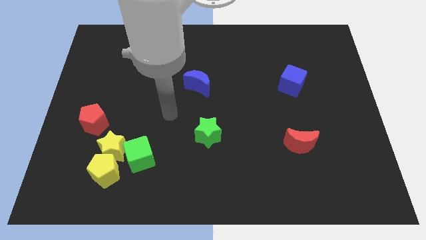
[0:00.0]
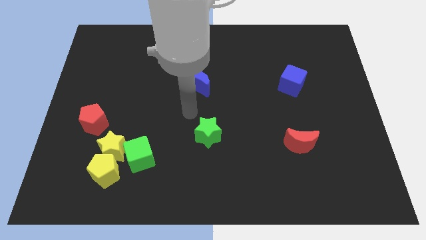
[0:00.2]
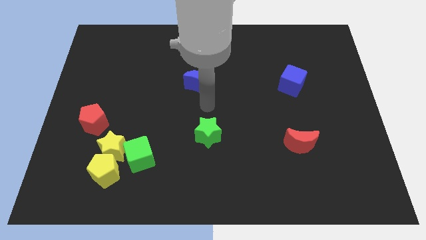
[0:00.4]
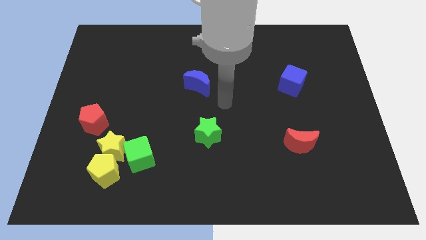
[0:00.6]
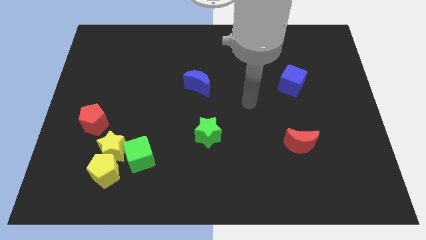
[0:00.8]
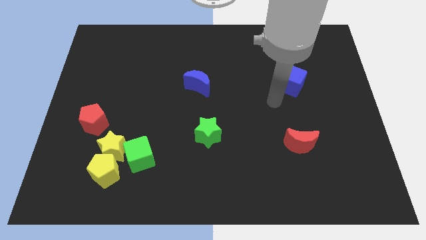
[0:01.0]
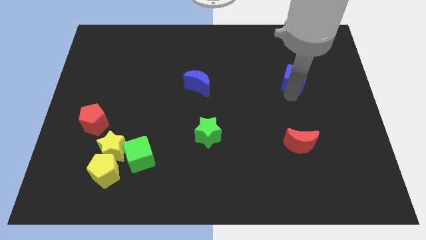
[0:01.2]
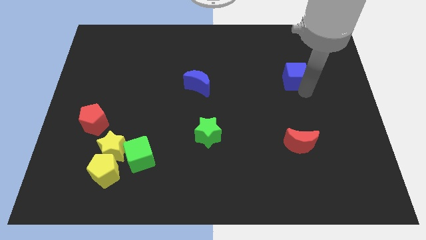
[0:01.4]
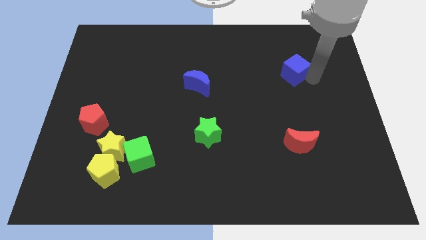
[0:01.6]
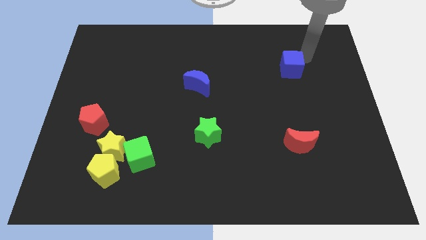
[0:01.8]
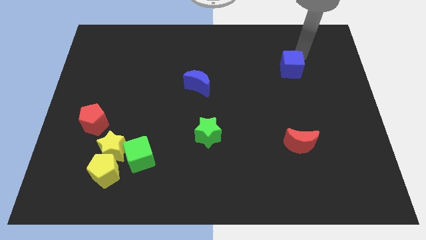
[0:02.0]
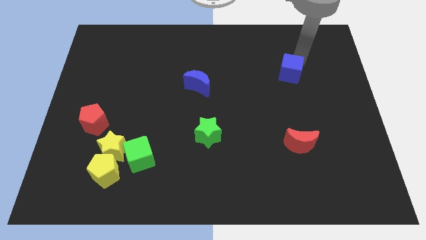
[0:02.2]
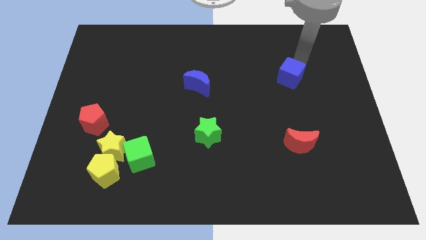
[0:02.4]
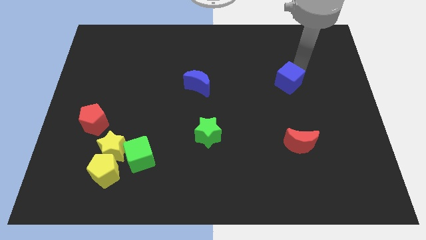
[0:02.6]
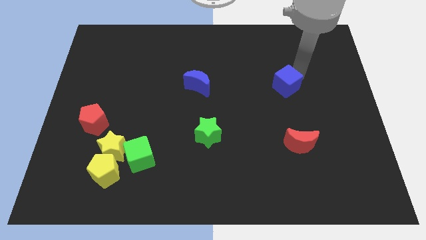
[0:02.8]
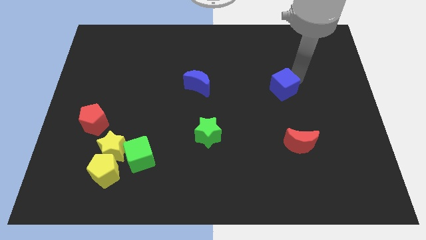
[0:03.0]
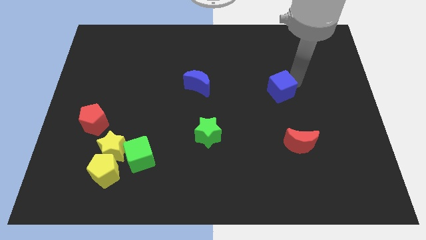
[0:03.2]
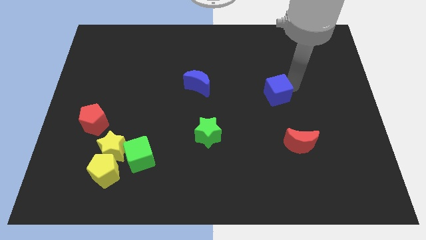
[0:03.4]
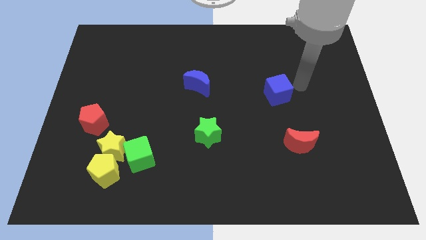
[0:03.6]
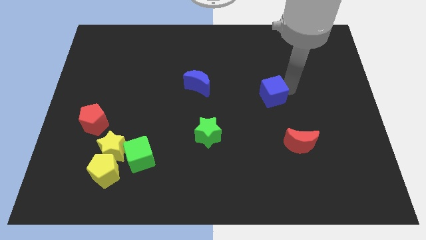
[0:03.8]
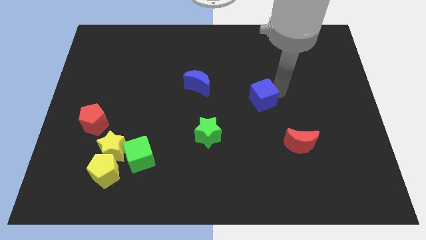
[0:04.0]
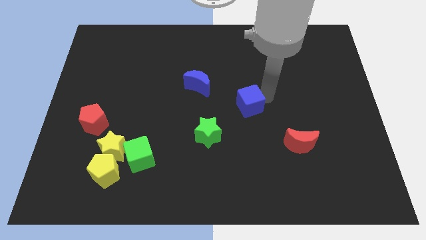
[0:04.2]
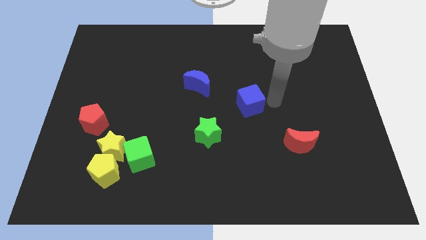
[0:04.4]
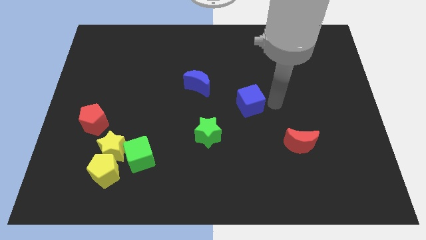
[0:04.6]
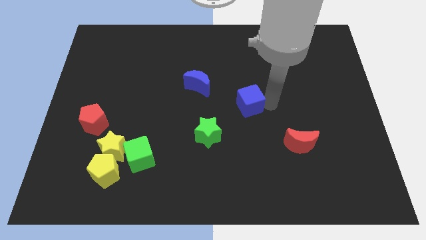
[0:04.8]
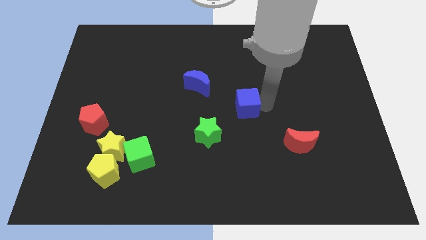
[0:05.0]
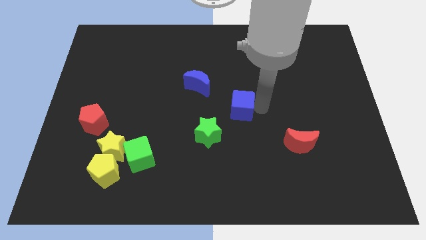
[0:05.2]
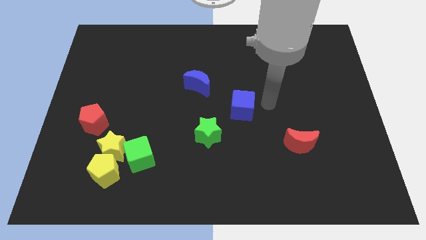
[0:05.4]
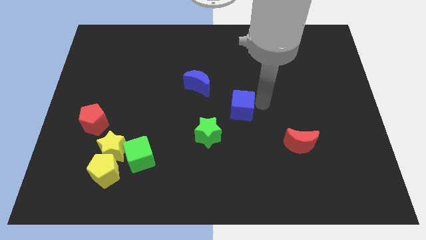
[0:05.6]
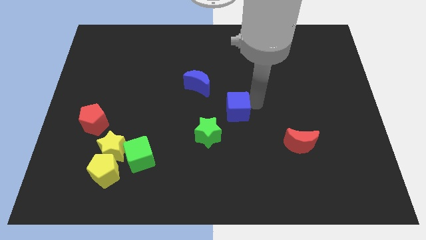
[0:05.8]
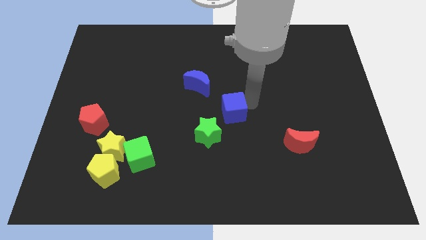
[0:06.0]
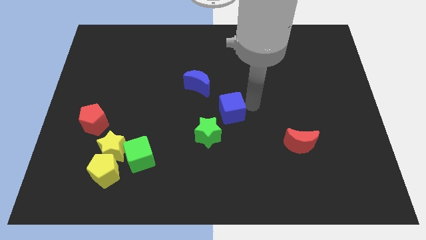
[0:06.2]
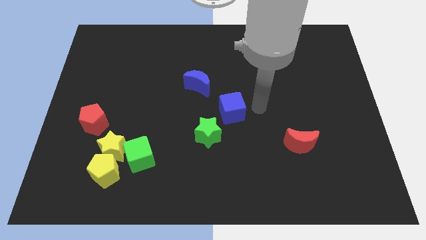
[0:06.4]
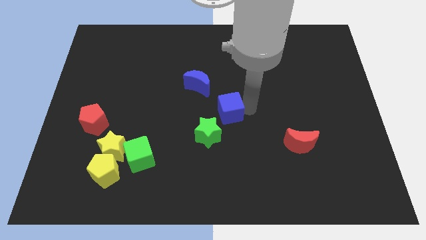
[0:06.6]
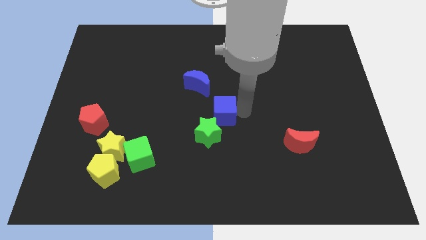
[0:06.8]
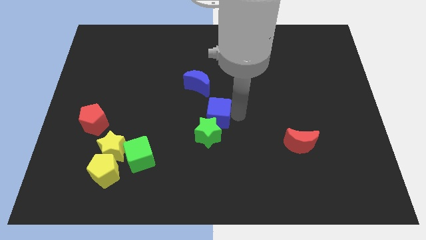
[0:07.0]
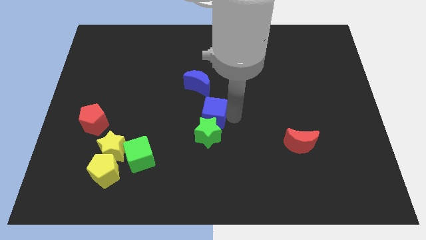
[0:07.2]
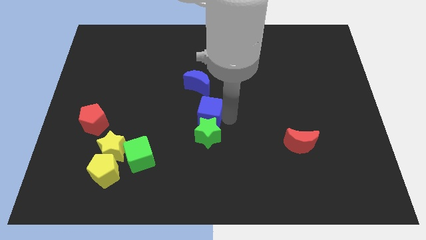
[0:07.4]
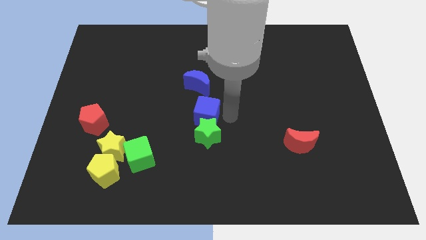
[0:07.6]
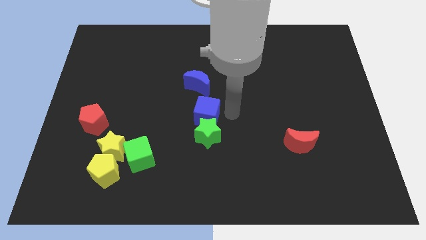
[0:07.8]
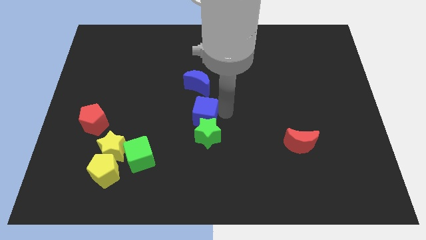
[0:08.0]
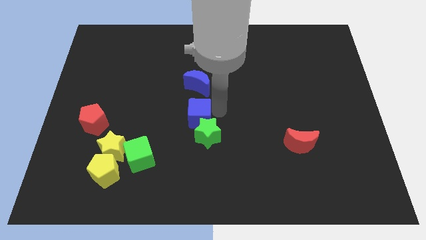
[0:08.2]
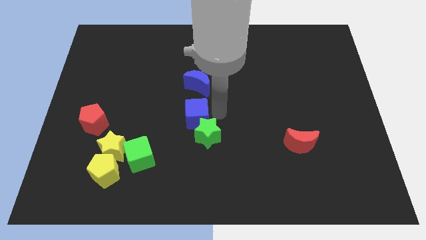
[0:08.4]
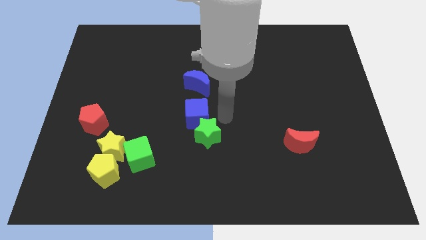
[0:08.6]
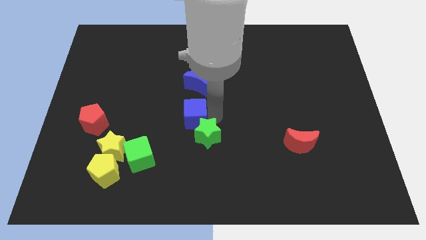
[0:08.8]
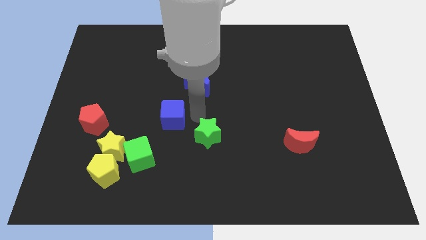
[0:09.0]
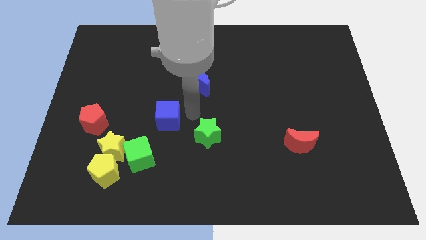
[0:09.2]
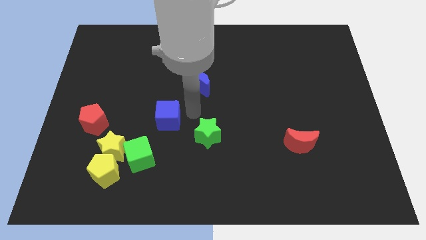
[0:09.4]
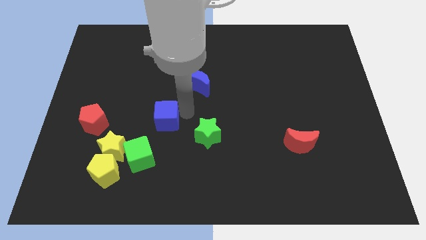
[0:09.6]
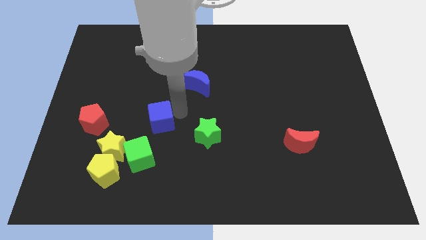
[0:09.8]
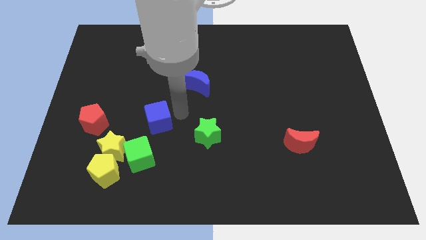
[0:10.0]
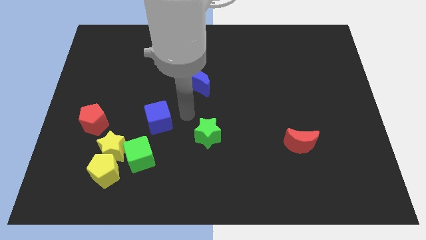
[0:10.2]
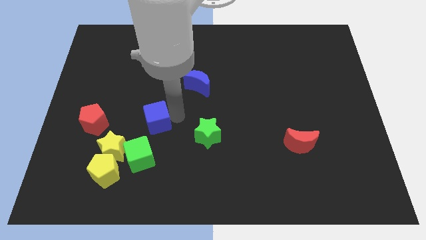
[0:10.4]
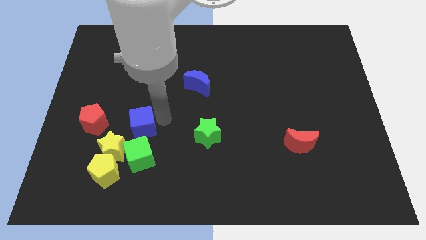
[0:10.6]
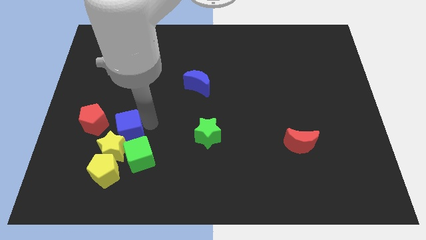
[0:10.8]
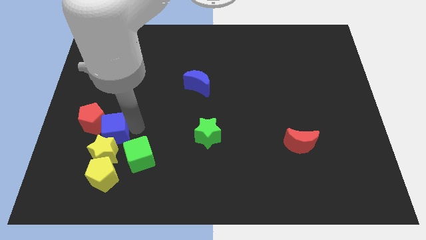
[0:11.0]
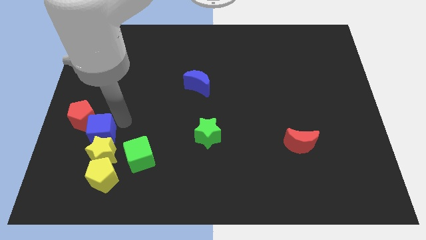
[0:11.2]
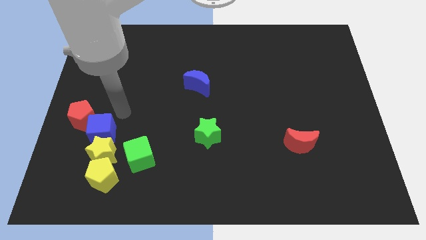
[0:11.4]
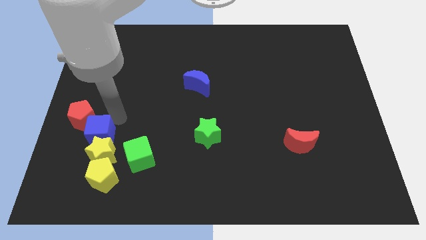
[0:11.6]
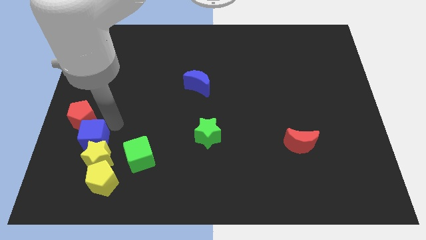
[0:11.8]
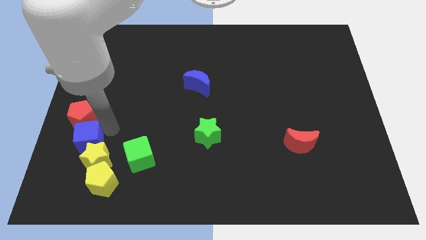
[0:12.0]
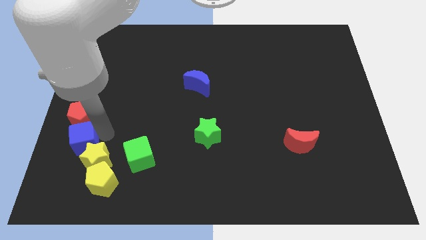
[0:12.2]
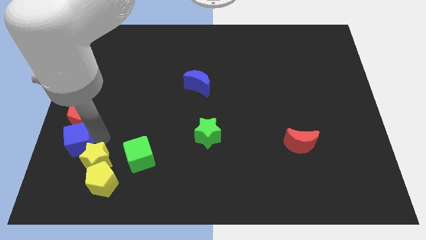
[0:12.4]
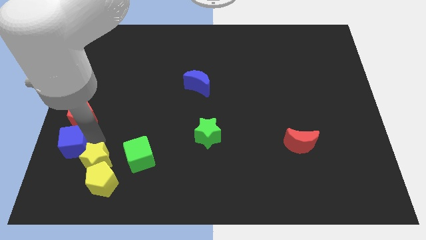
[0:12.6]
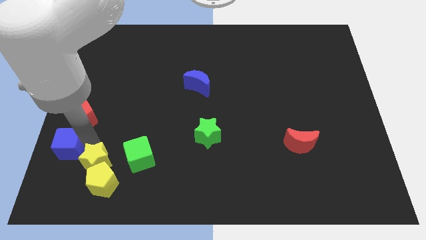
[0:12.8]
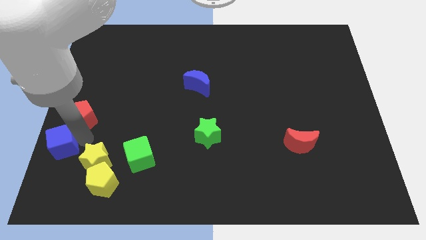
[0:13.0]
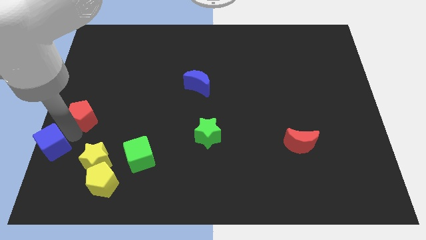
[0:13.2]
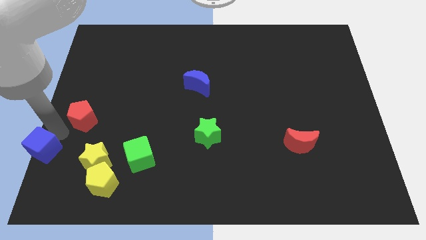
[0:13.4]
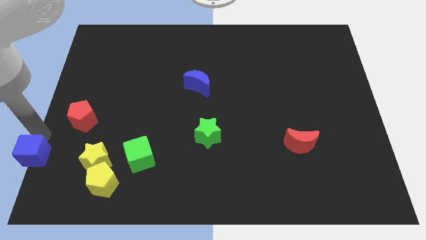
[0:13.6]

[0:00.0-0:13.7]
push the blue cube to the bottom left corner
